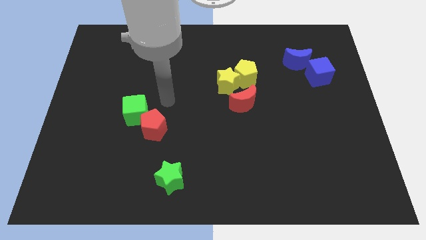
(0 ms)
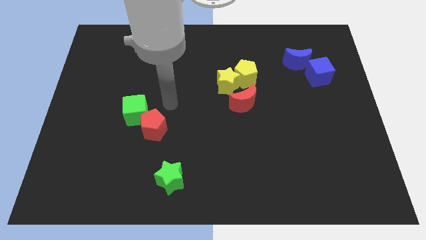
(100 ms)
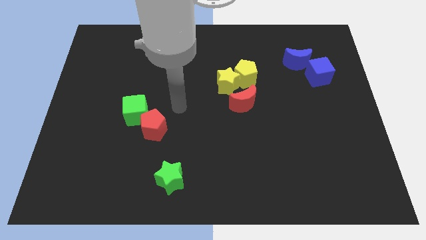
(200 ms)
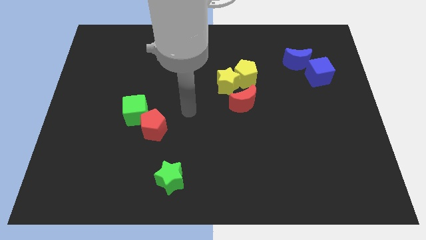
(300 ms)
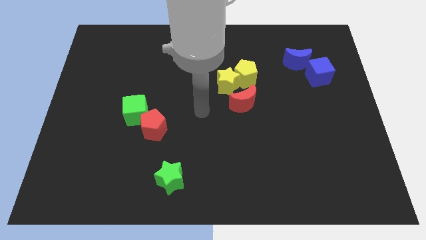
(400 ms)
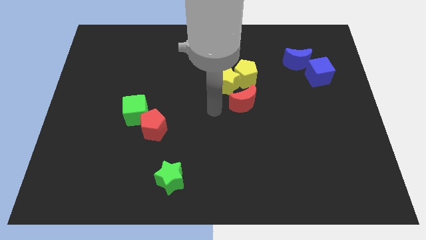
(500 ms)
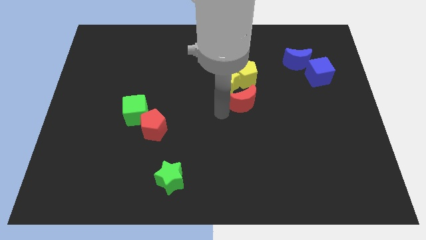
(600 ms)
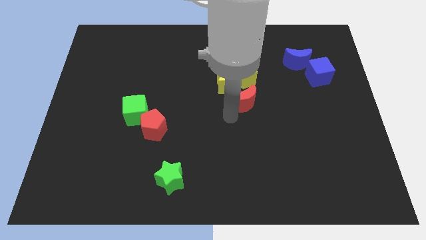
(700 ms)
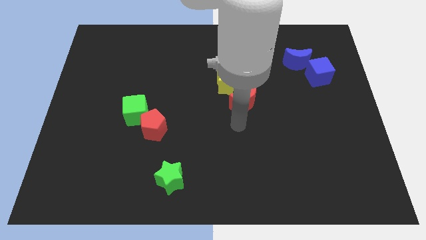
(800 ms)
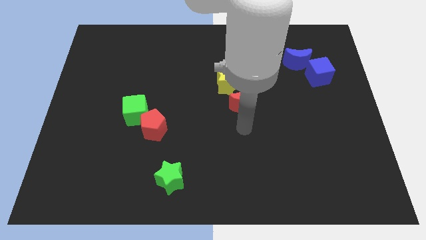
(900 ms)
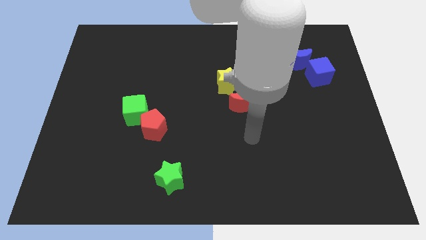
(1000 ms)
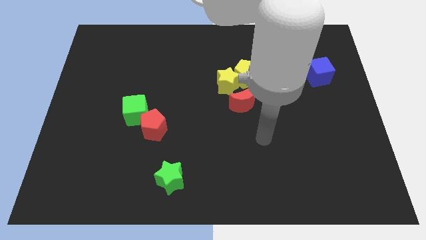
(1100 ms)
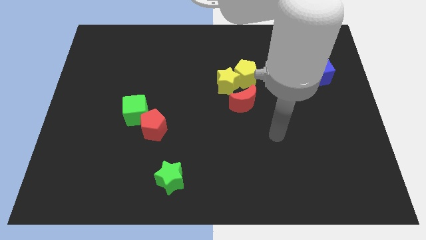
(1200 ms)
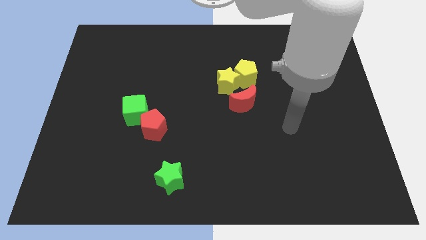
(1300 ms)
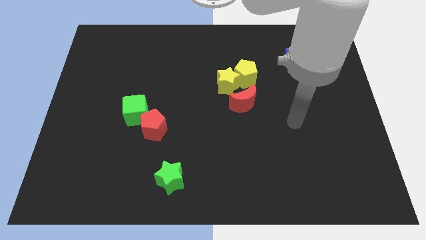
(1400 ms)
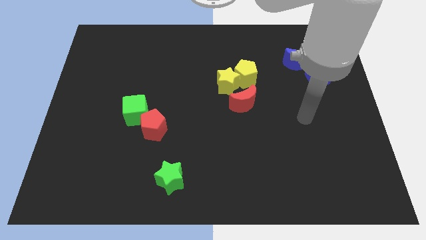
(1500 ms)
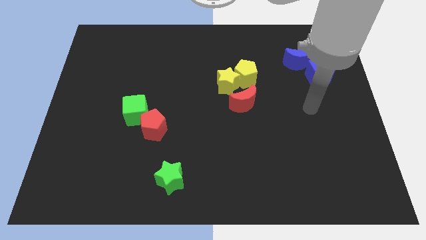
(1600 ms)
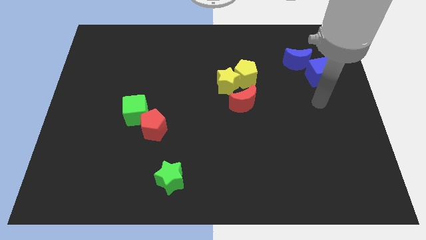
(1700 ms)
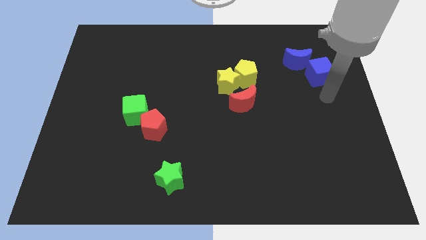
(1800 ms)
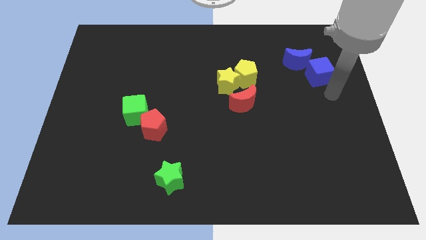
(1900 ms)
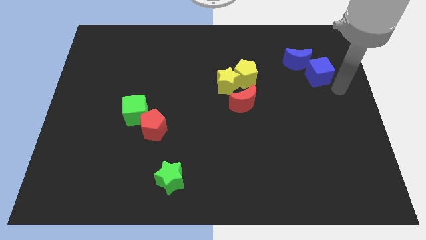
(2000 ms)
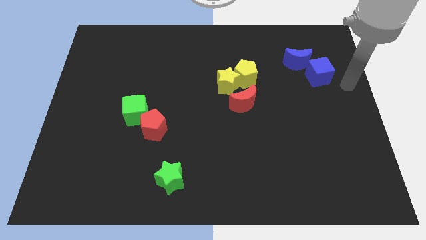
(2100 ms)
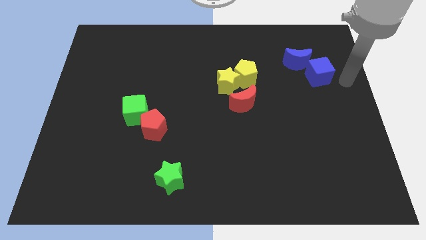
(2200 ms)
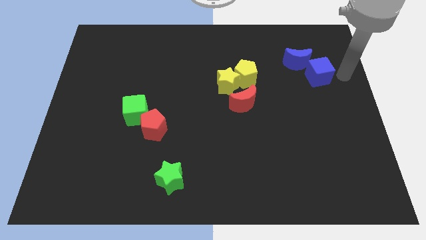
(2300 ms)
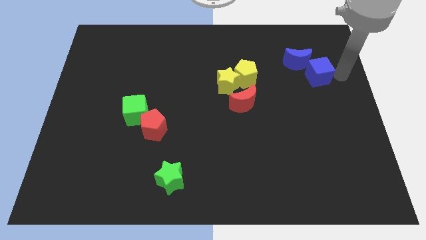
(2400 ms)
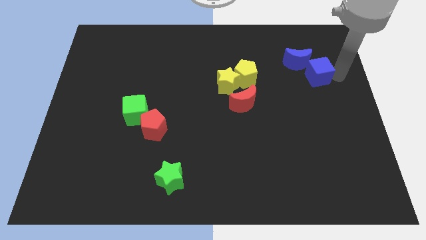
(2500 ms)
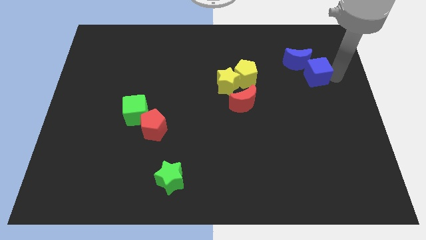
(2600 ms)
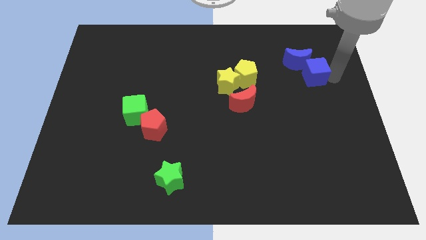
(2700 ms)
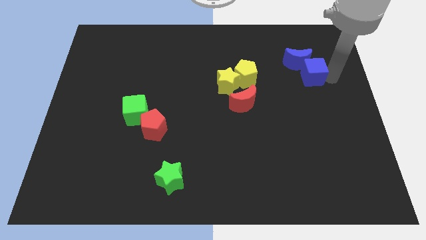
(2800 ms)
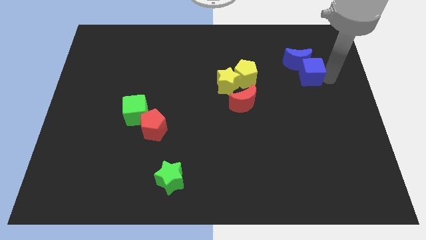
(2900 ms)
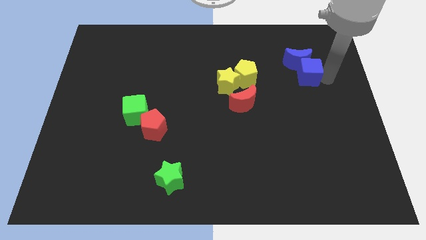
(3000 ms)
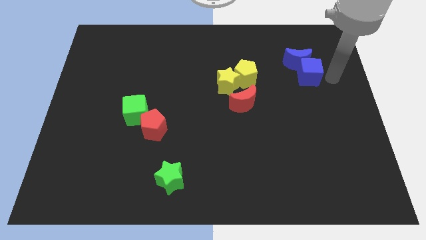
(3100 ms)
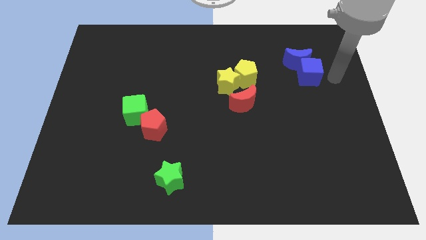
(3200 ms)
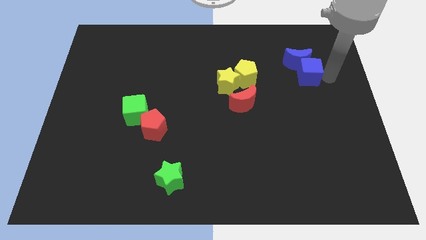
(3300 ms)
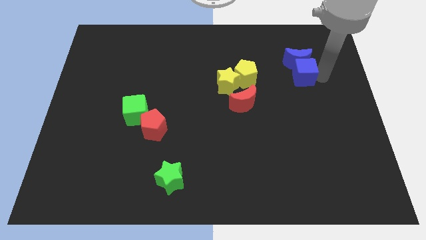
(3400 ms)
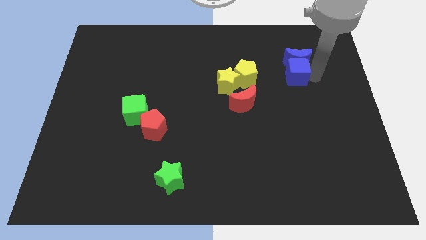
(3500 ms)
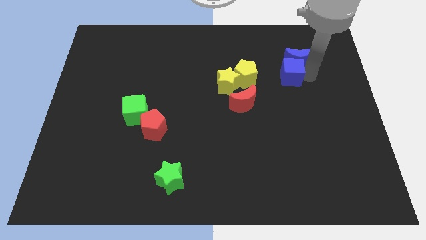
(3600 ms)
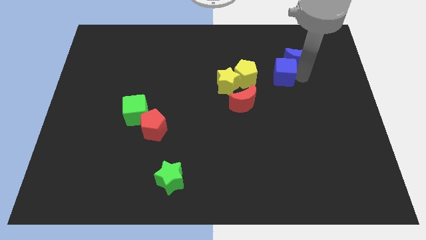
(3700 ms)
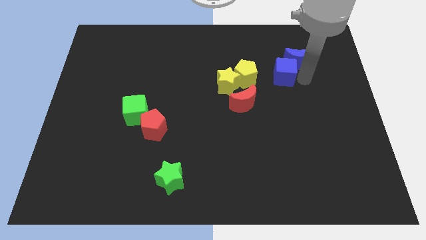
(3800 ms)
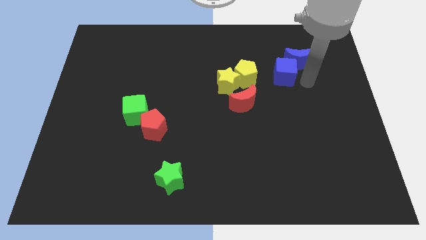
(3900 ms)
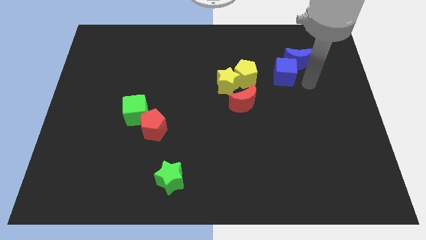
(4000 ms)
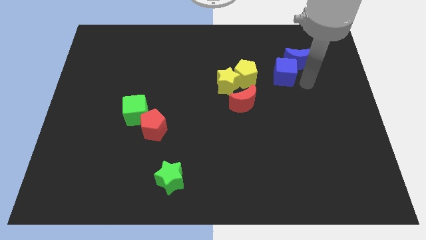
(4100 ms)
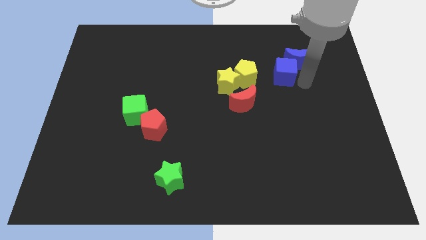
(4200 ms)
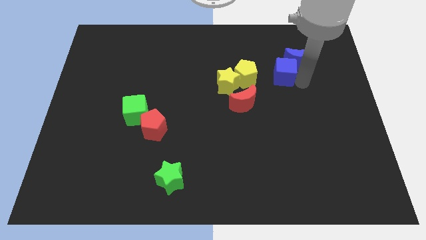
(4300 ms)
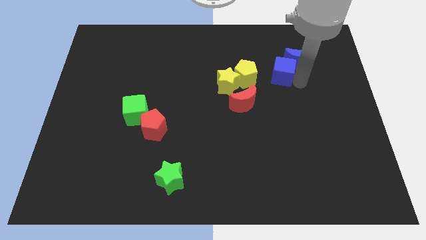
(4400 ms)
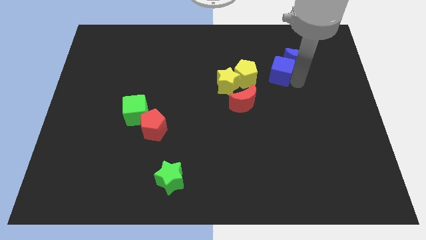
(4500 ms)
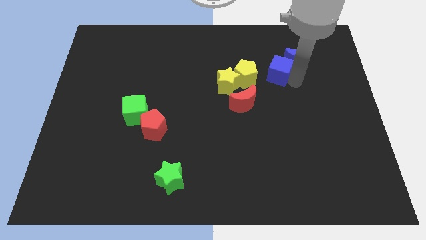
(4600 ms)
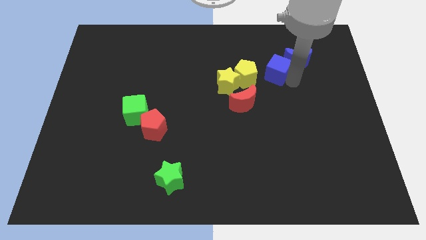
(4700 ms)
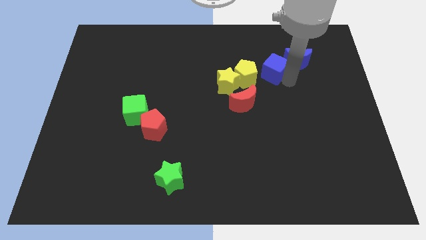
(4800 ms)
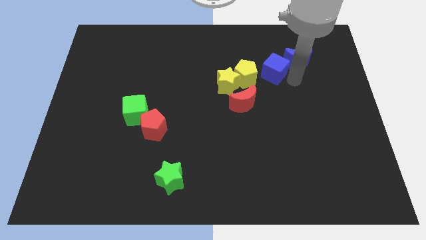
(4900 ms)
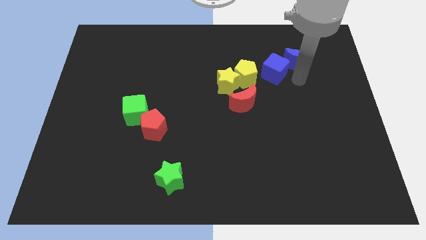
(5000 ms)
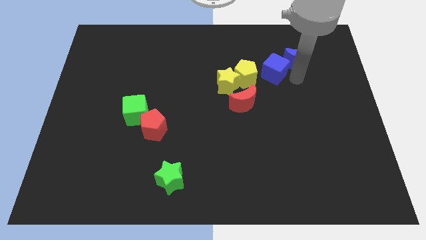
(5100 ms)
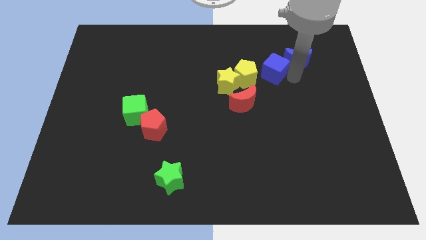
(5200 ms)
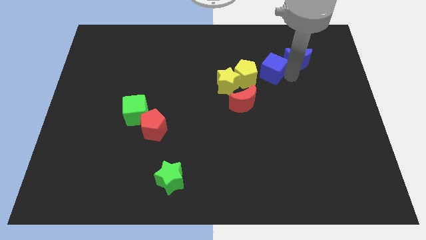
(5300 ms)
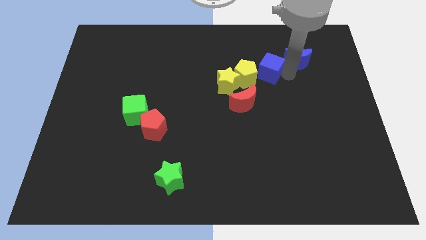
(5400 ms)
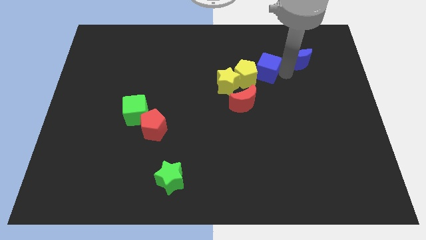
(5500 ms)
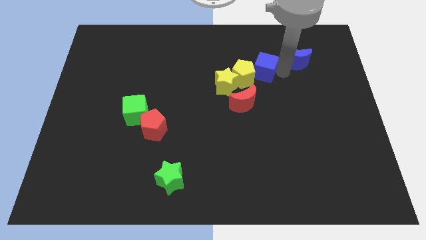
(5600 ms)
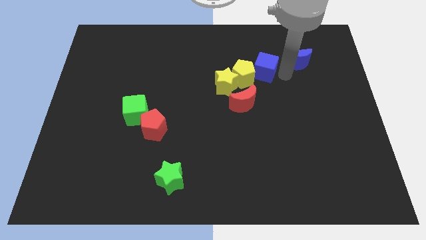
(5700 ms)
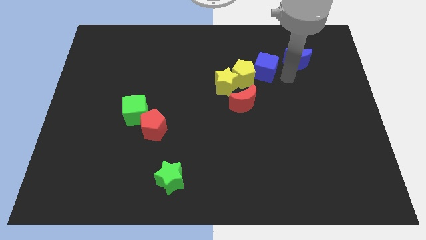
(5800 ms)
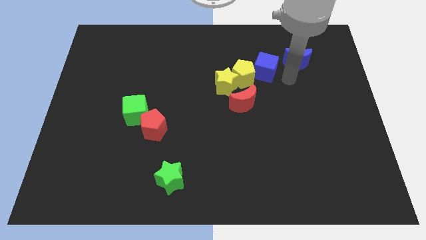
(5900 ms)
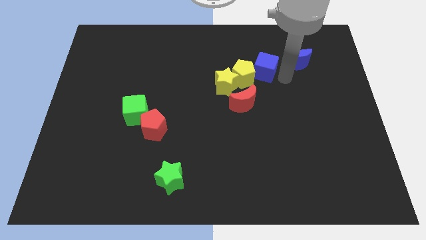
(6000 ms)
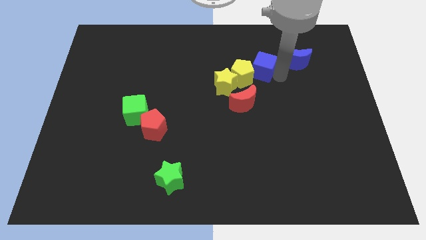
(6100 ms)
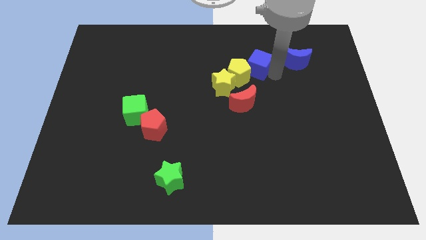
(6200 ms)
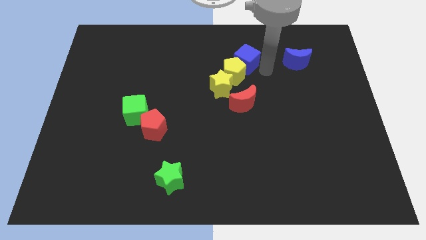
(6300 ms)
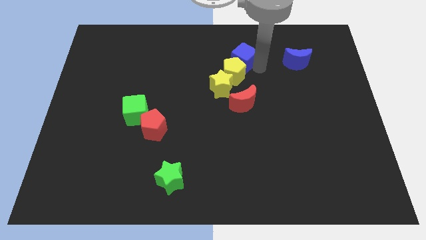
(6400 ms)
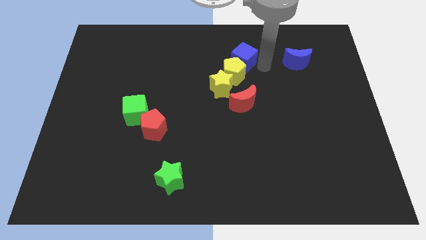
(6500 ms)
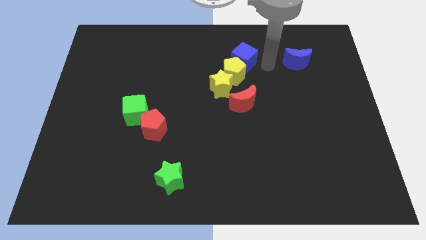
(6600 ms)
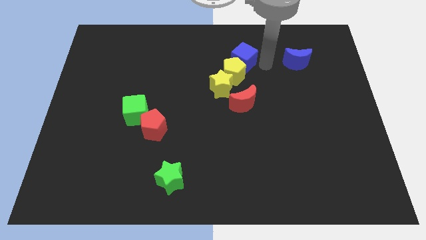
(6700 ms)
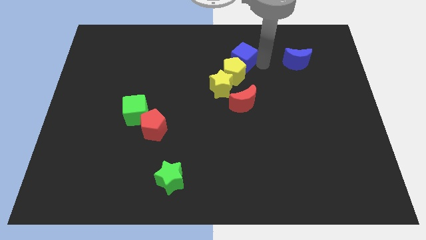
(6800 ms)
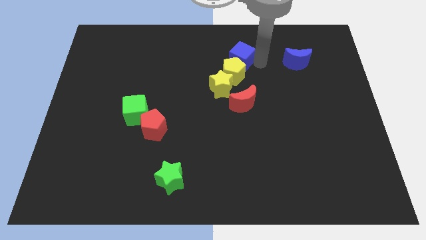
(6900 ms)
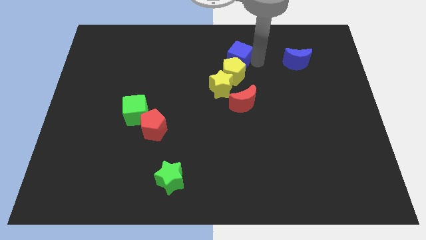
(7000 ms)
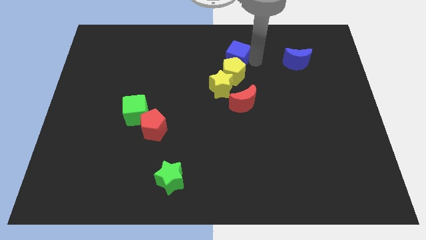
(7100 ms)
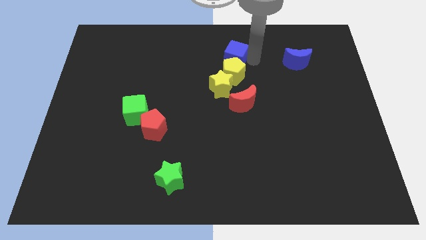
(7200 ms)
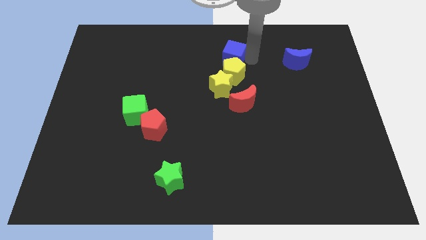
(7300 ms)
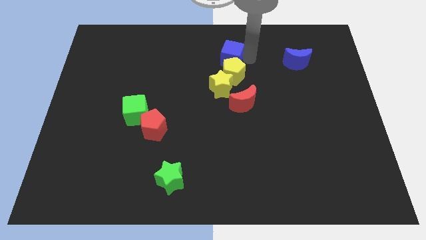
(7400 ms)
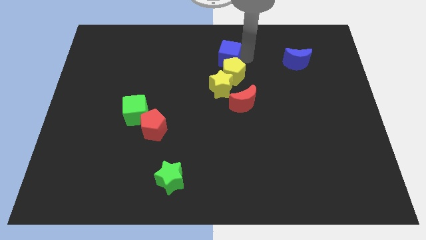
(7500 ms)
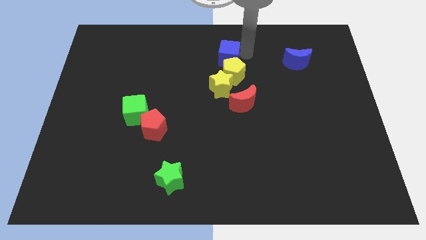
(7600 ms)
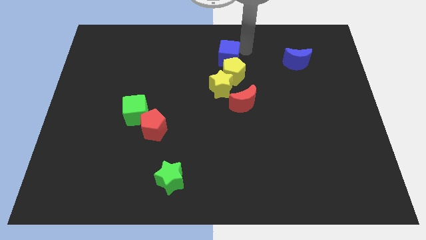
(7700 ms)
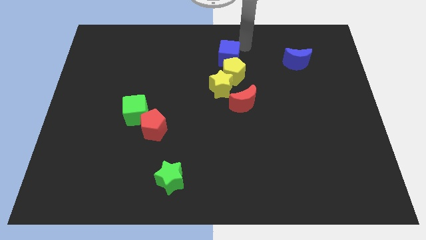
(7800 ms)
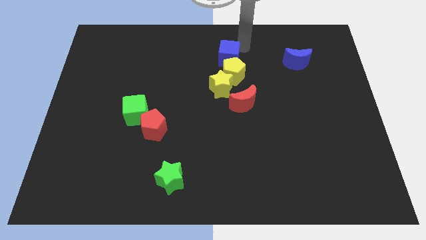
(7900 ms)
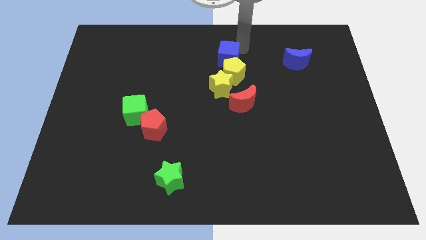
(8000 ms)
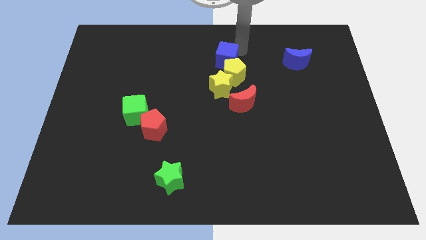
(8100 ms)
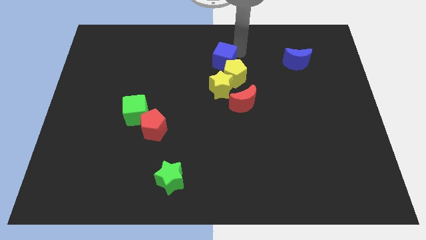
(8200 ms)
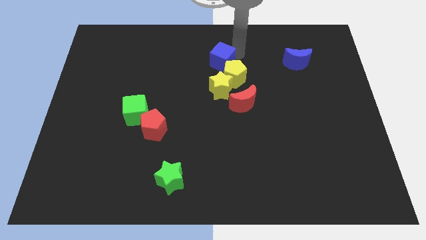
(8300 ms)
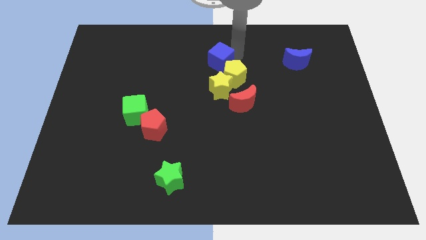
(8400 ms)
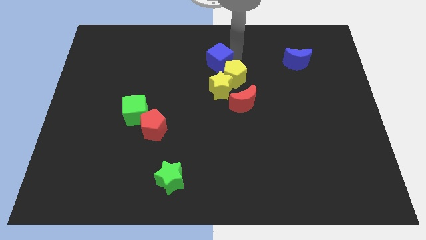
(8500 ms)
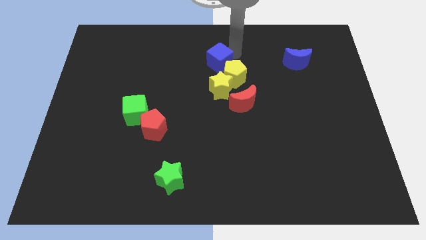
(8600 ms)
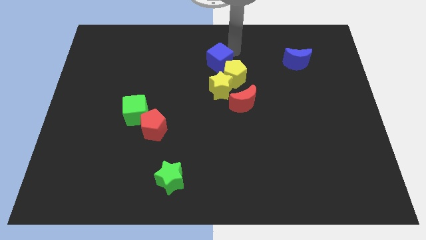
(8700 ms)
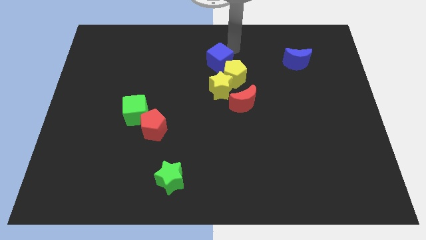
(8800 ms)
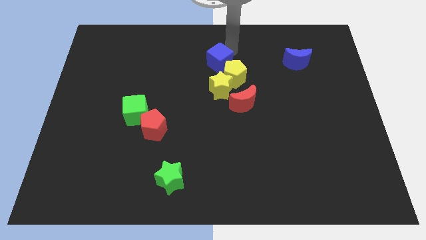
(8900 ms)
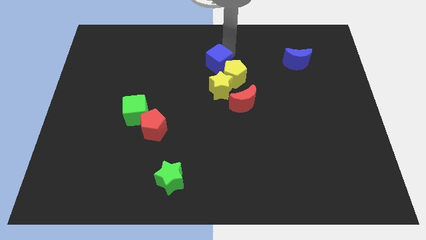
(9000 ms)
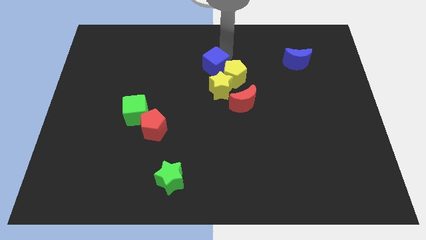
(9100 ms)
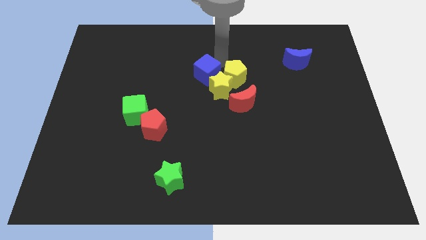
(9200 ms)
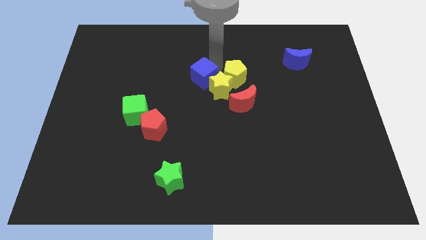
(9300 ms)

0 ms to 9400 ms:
move the blue cube just left of the yellow star
